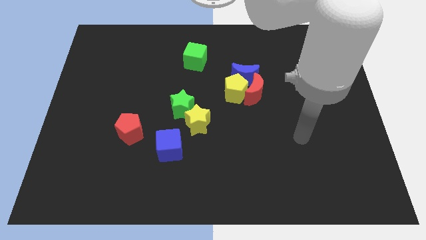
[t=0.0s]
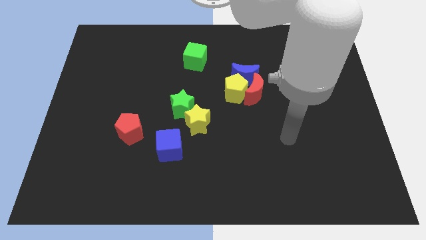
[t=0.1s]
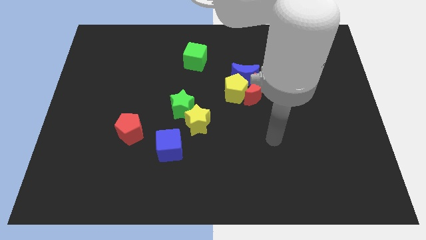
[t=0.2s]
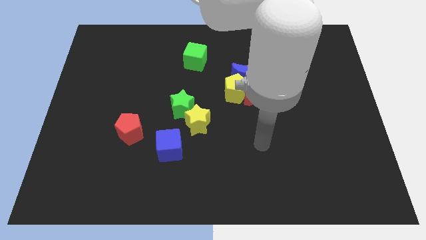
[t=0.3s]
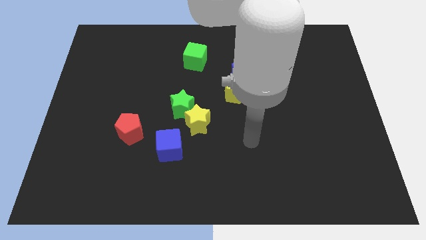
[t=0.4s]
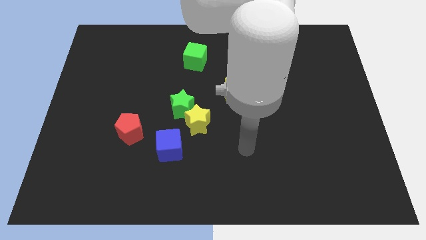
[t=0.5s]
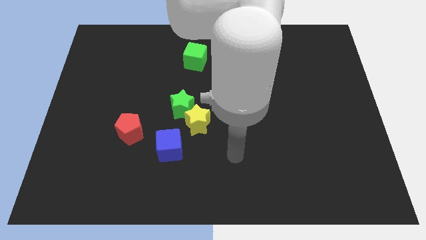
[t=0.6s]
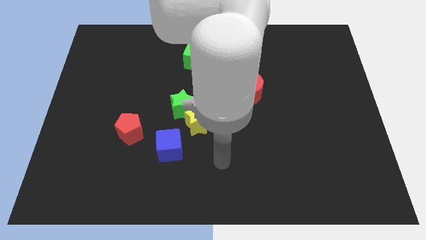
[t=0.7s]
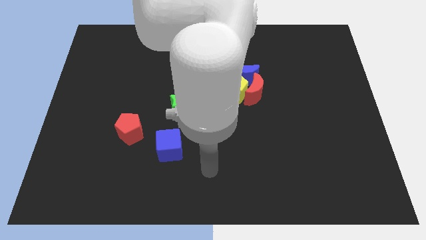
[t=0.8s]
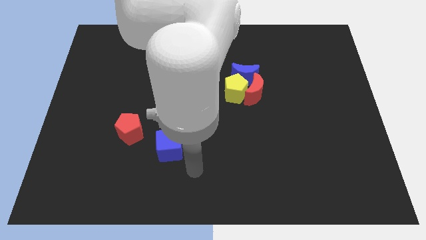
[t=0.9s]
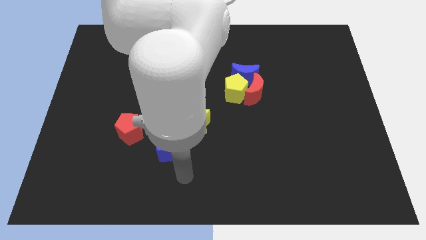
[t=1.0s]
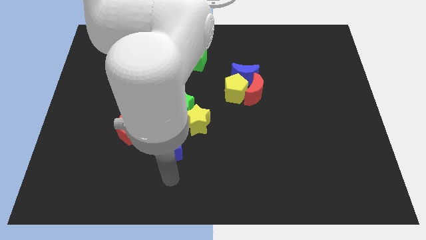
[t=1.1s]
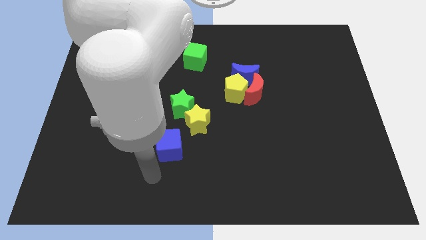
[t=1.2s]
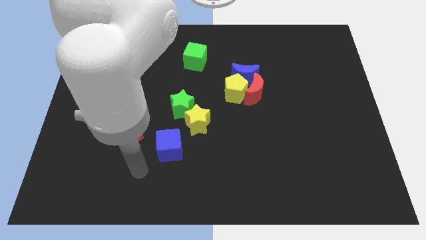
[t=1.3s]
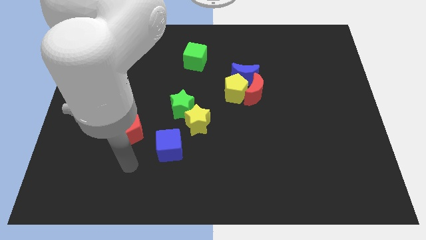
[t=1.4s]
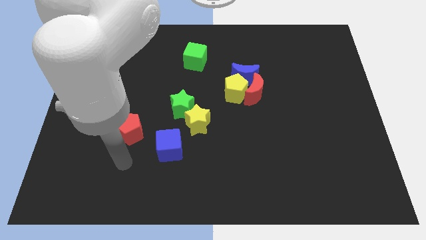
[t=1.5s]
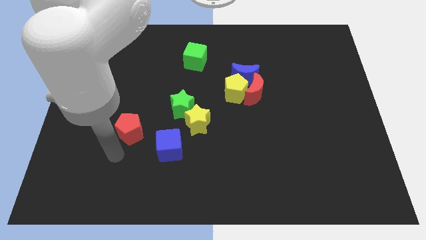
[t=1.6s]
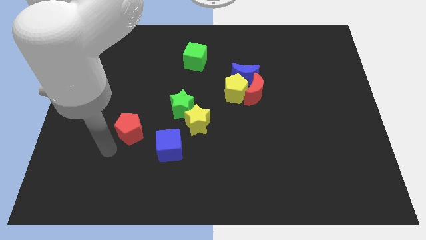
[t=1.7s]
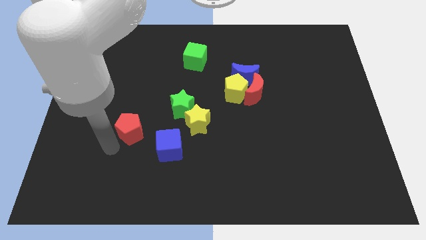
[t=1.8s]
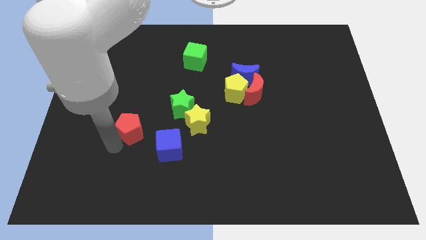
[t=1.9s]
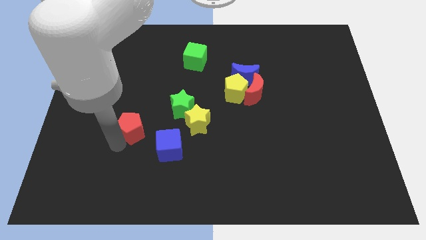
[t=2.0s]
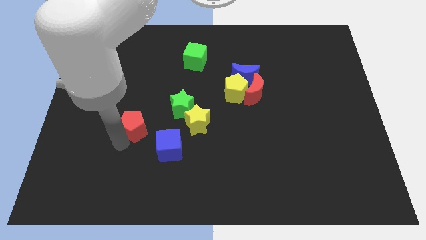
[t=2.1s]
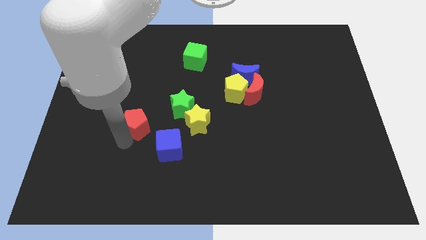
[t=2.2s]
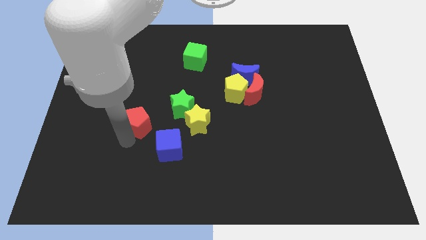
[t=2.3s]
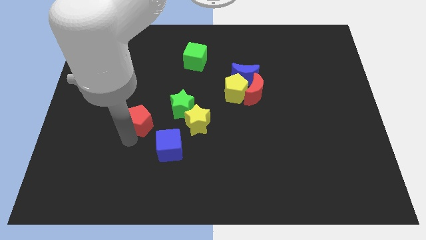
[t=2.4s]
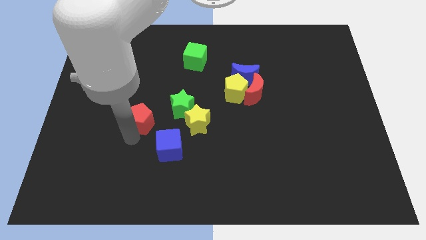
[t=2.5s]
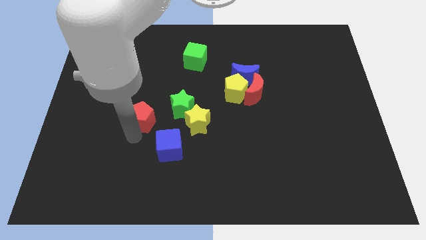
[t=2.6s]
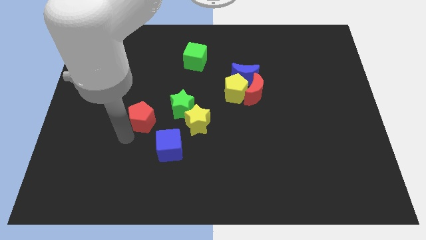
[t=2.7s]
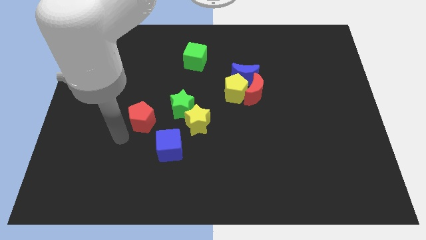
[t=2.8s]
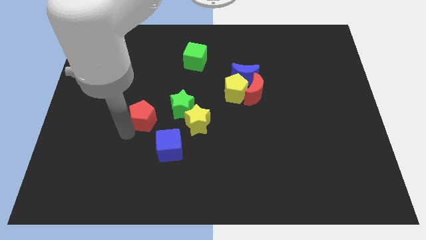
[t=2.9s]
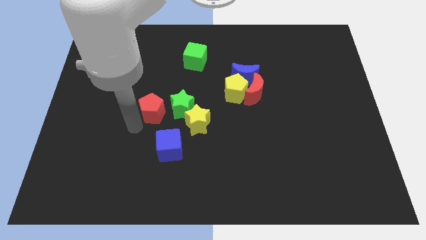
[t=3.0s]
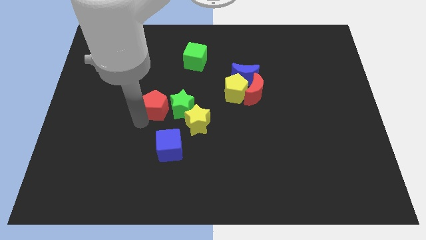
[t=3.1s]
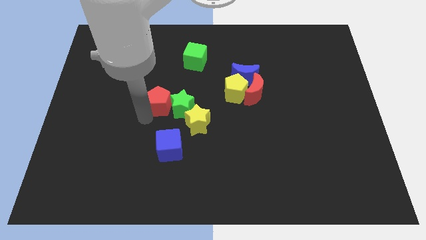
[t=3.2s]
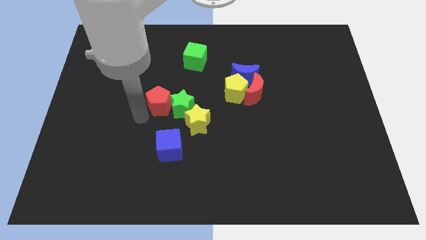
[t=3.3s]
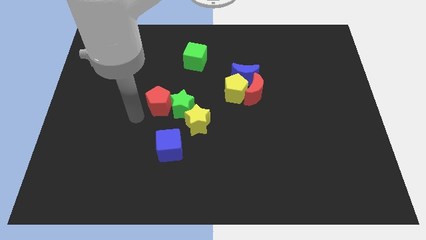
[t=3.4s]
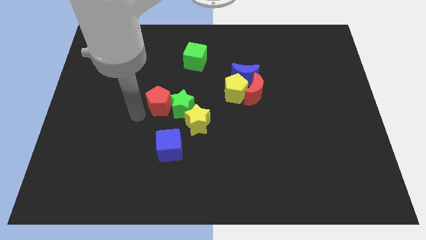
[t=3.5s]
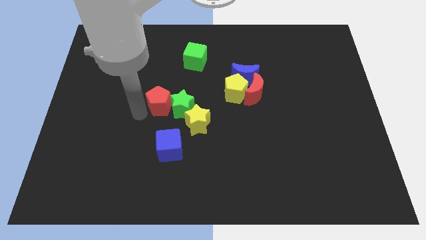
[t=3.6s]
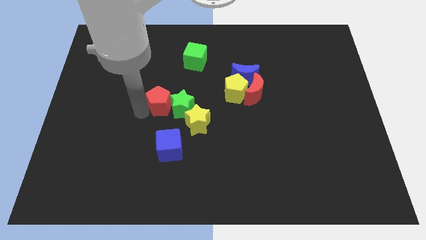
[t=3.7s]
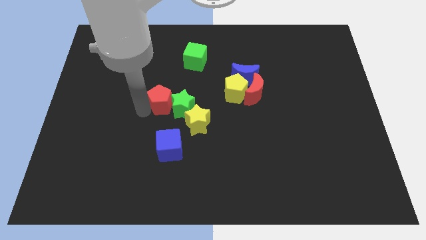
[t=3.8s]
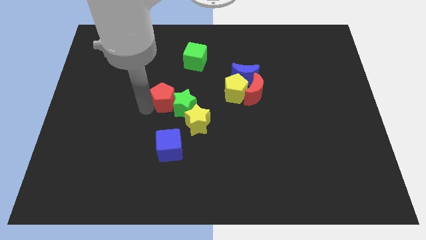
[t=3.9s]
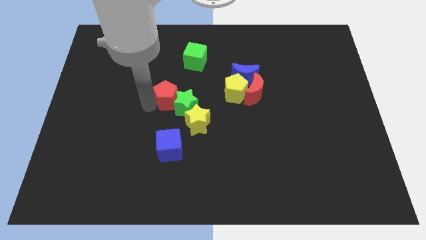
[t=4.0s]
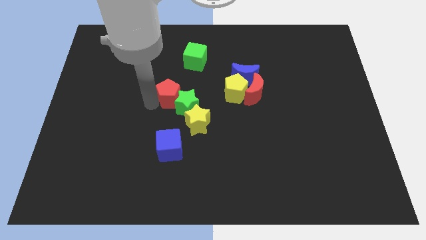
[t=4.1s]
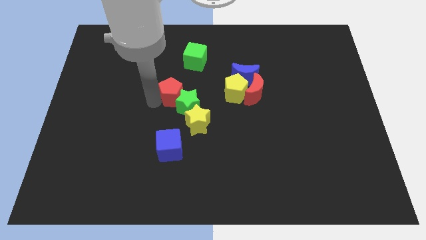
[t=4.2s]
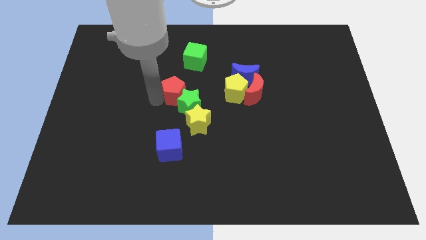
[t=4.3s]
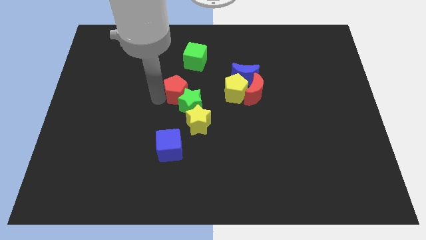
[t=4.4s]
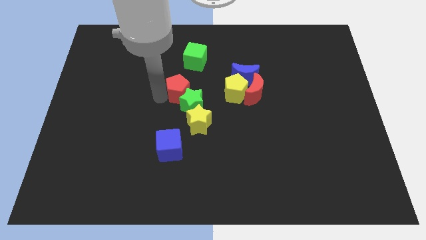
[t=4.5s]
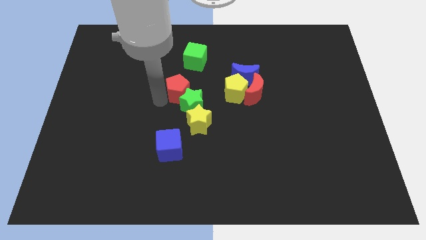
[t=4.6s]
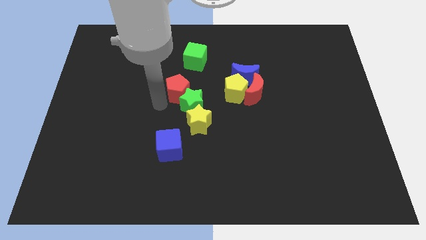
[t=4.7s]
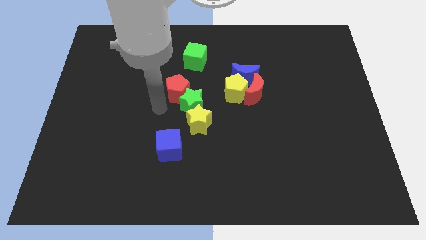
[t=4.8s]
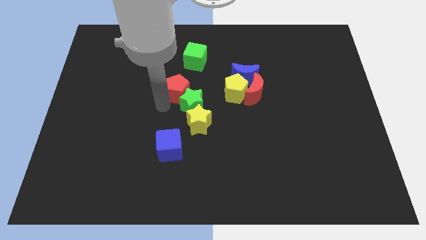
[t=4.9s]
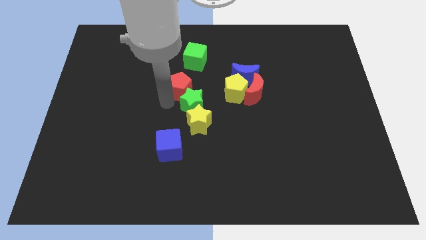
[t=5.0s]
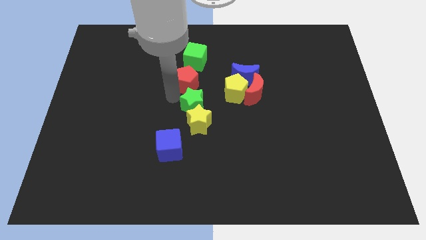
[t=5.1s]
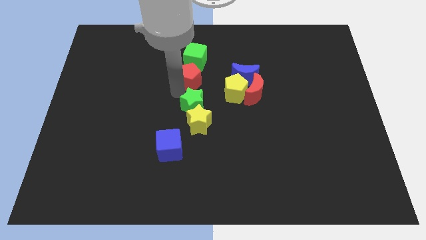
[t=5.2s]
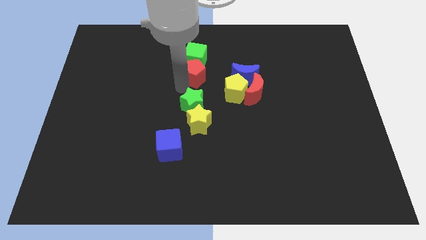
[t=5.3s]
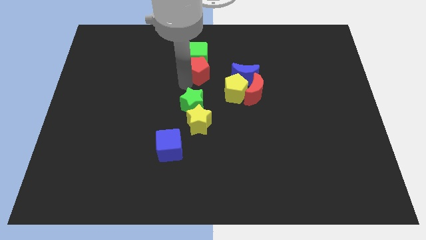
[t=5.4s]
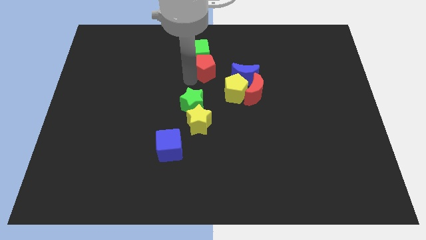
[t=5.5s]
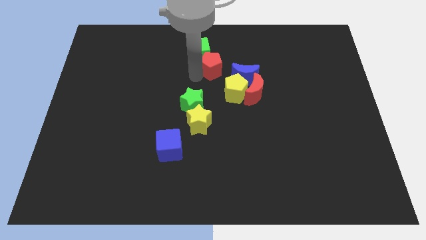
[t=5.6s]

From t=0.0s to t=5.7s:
put the red pentagon to the top left side of the blue moon

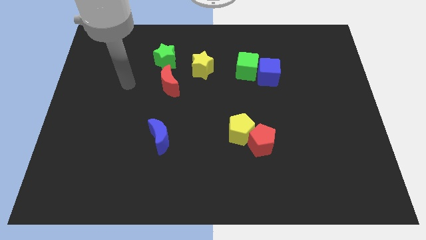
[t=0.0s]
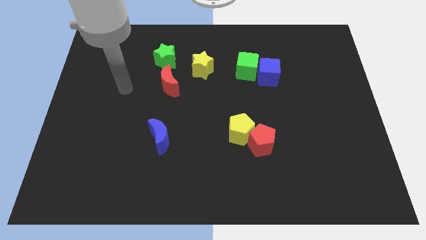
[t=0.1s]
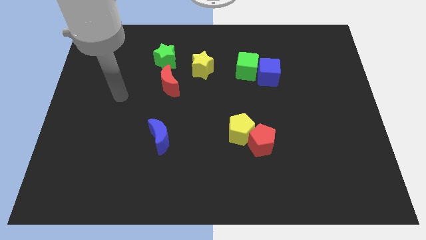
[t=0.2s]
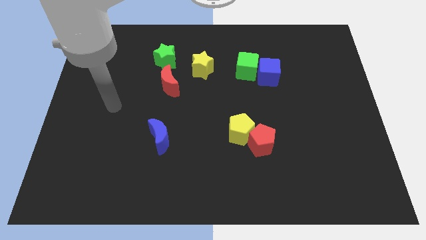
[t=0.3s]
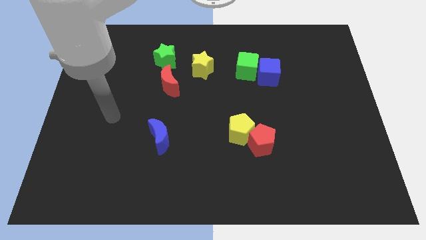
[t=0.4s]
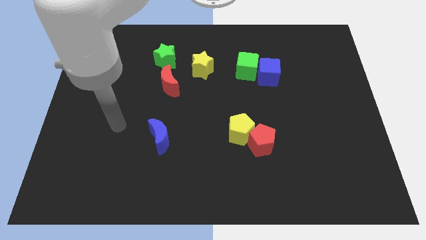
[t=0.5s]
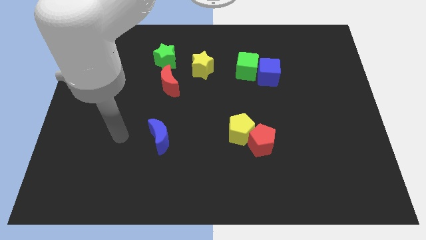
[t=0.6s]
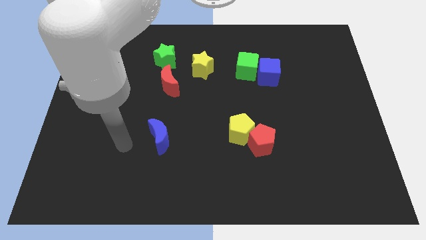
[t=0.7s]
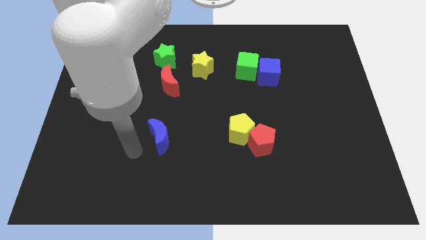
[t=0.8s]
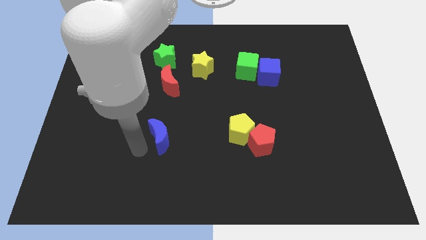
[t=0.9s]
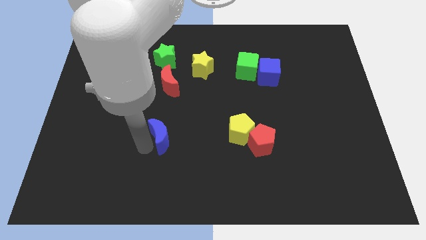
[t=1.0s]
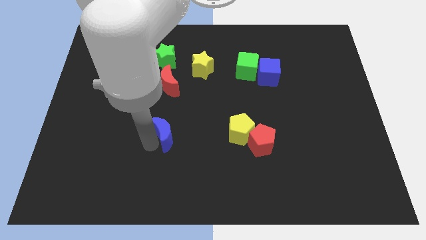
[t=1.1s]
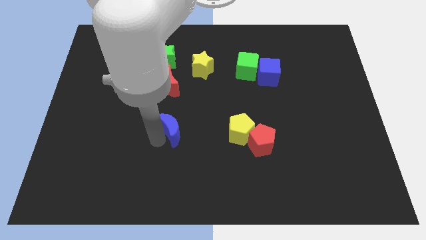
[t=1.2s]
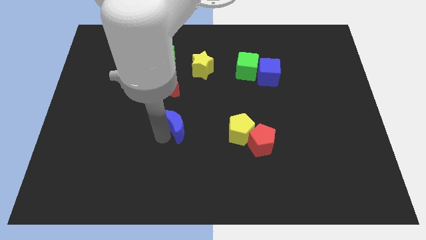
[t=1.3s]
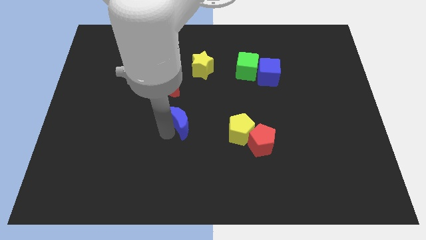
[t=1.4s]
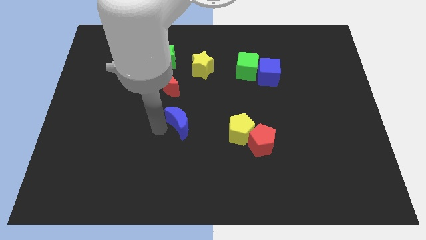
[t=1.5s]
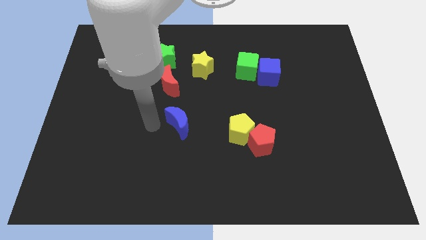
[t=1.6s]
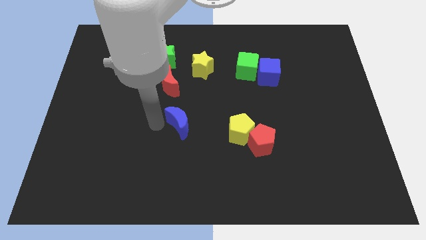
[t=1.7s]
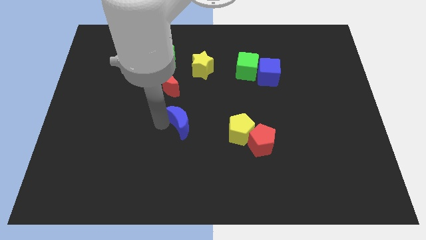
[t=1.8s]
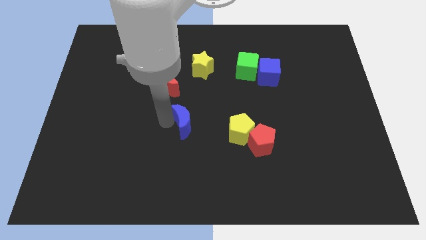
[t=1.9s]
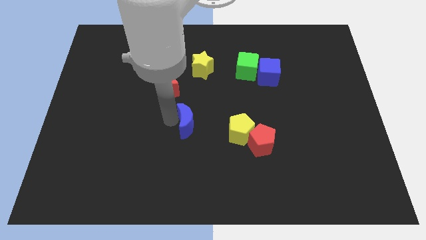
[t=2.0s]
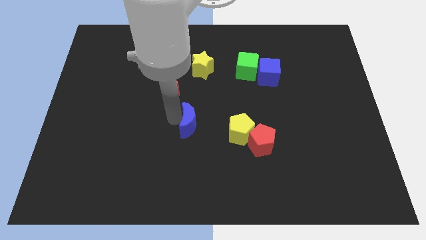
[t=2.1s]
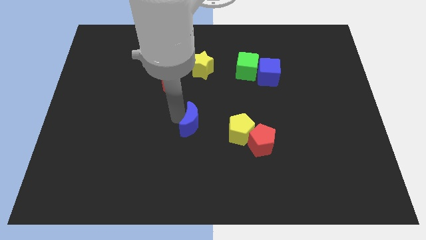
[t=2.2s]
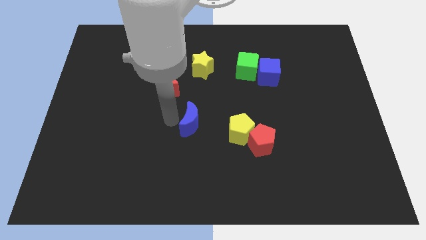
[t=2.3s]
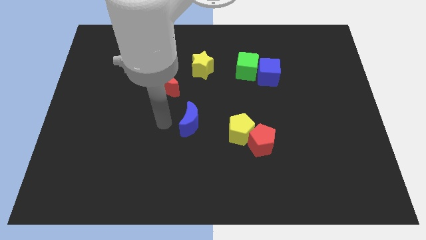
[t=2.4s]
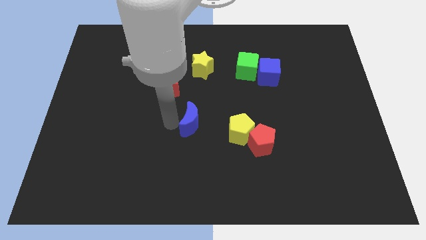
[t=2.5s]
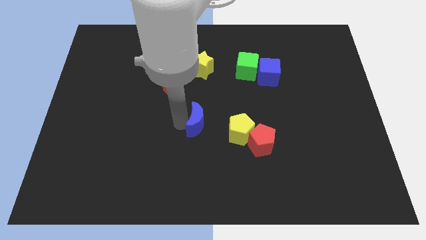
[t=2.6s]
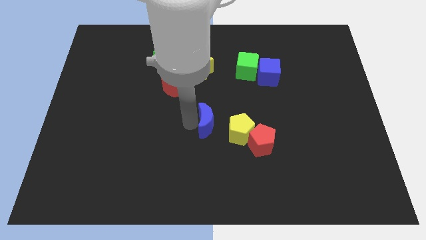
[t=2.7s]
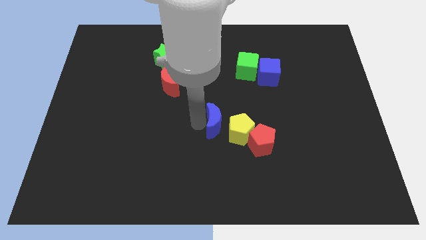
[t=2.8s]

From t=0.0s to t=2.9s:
put the blue moon to the top left of the red pentagon
